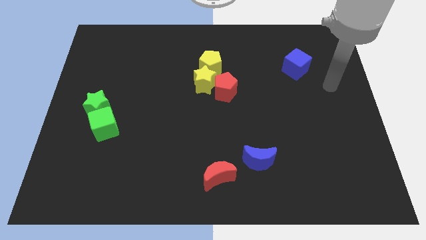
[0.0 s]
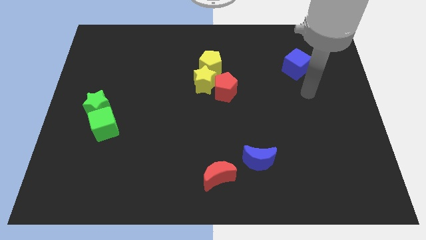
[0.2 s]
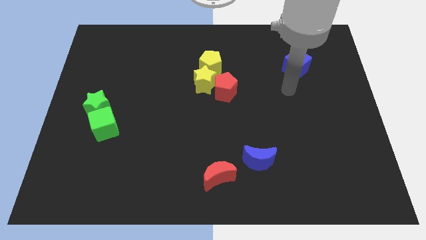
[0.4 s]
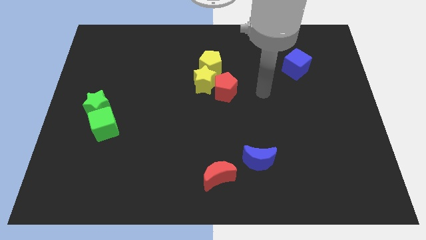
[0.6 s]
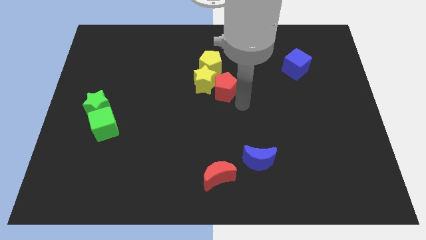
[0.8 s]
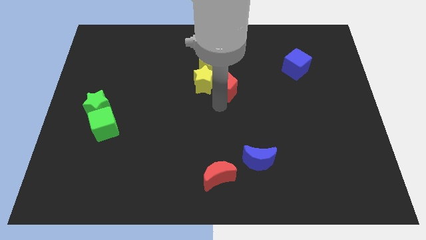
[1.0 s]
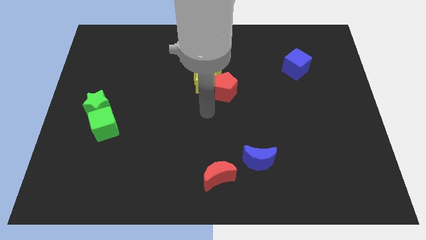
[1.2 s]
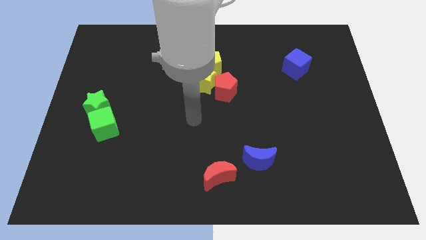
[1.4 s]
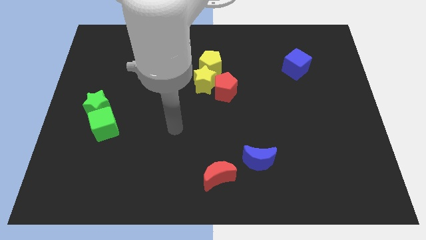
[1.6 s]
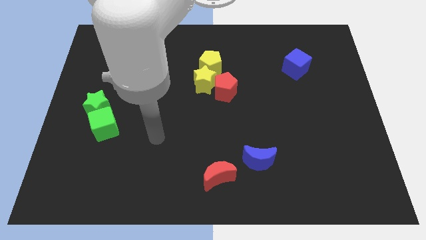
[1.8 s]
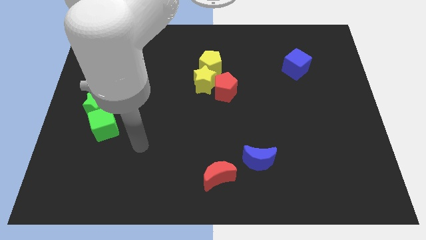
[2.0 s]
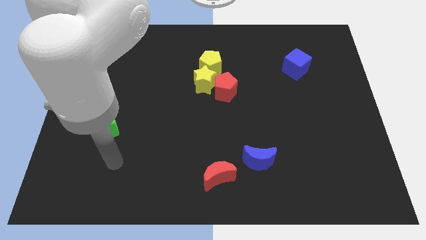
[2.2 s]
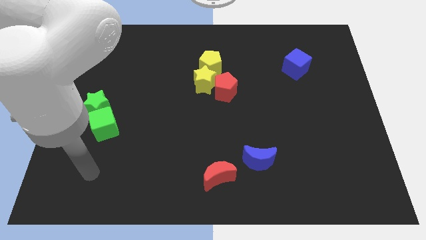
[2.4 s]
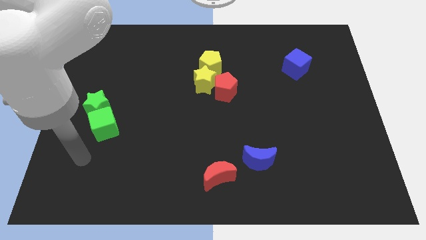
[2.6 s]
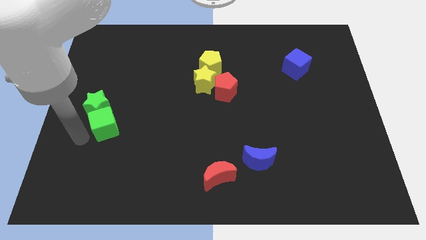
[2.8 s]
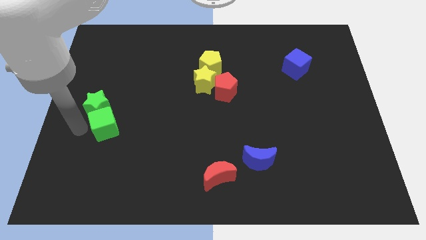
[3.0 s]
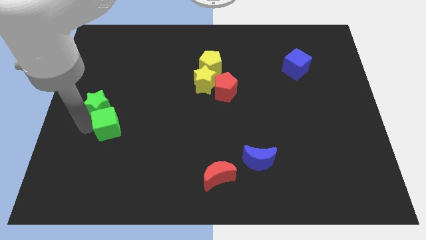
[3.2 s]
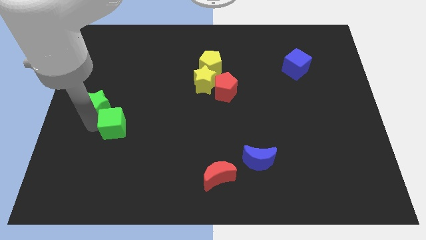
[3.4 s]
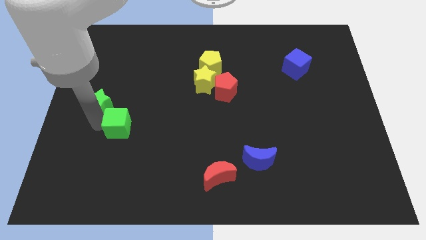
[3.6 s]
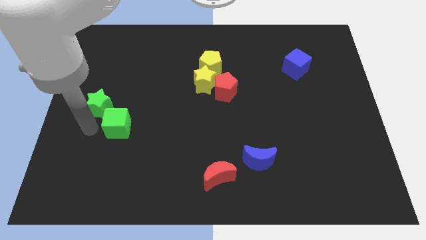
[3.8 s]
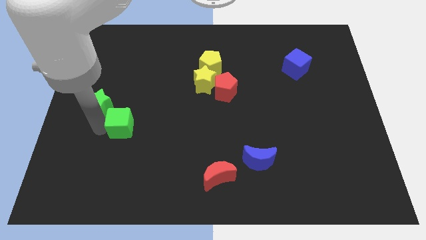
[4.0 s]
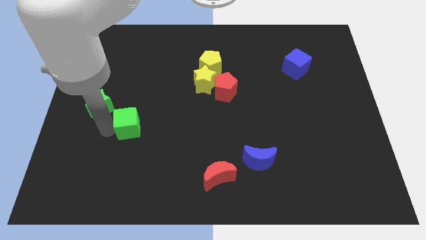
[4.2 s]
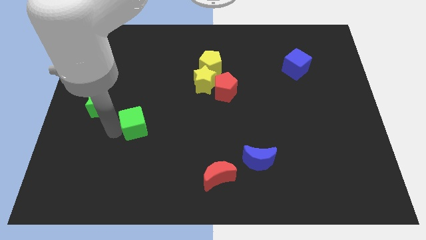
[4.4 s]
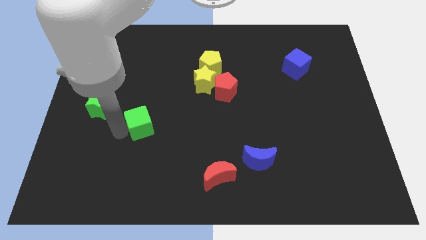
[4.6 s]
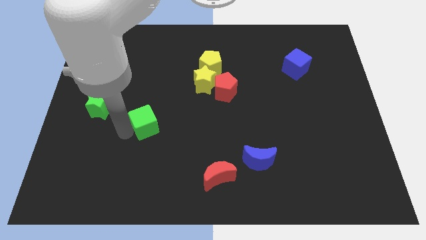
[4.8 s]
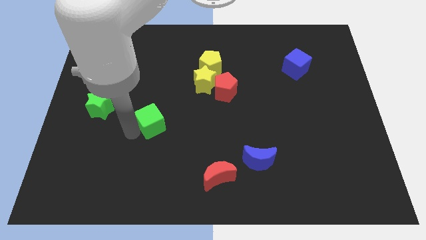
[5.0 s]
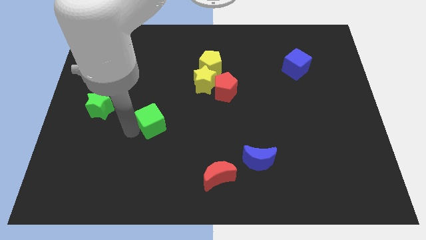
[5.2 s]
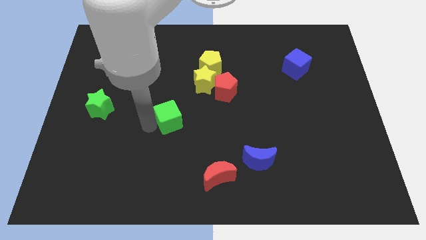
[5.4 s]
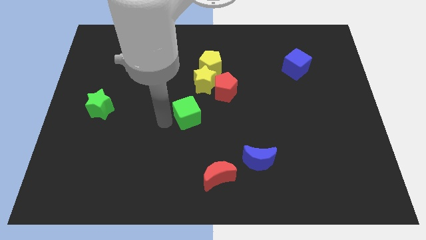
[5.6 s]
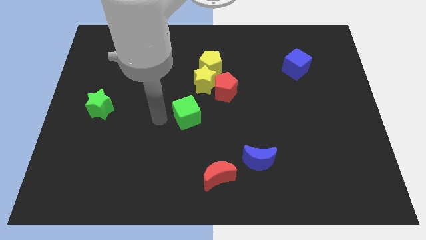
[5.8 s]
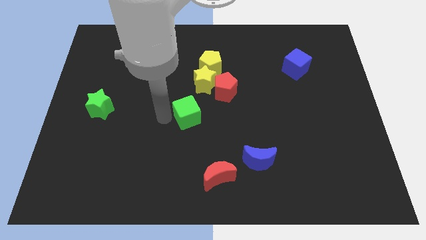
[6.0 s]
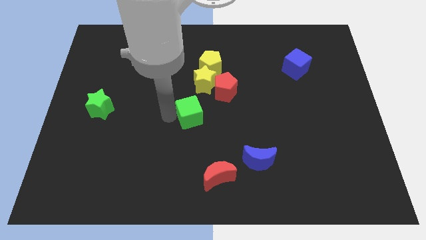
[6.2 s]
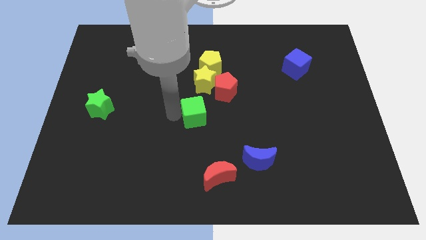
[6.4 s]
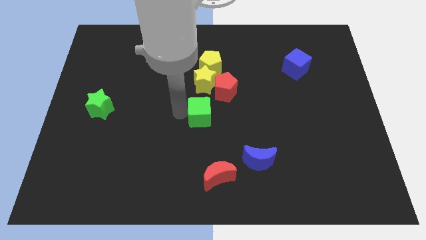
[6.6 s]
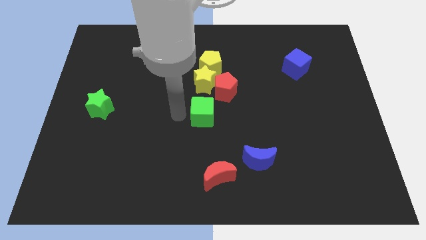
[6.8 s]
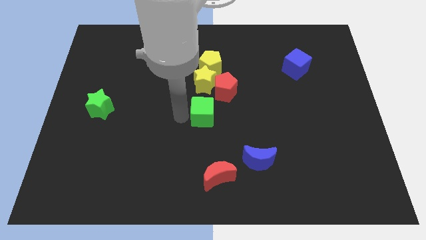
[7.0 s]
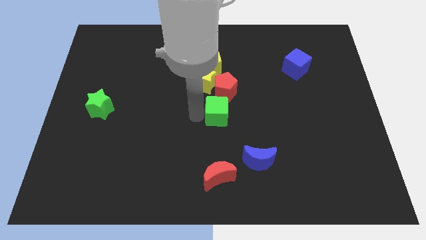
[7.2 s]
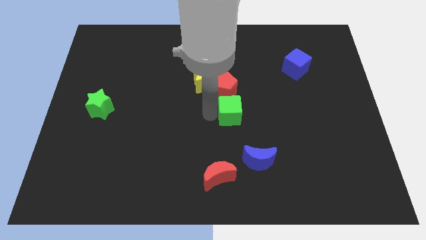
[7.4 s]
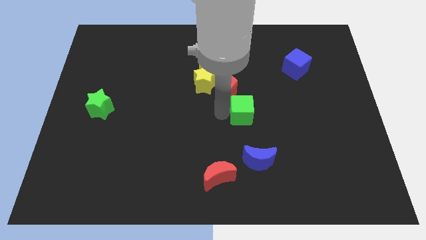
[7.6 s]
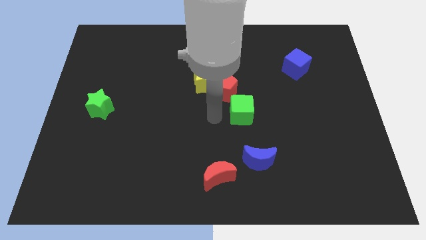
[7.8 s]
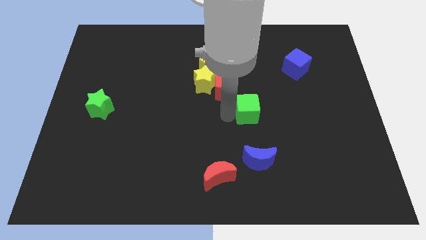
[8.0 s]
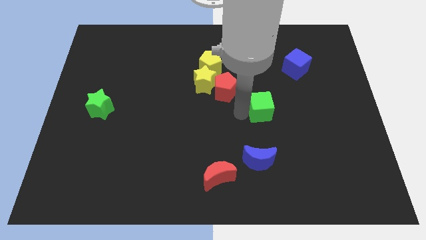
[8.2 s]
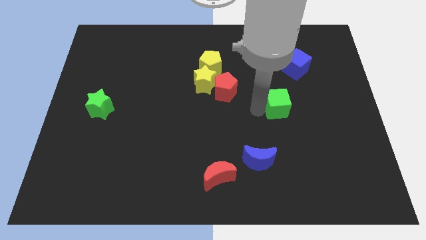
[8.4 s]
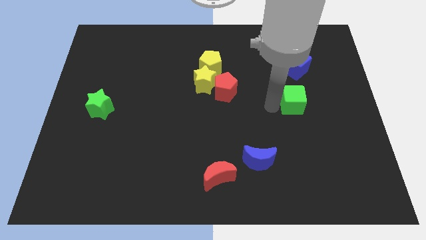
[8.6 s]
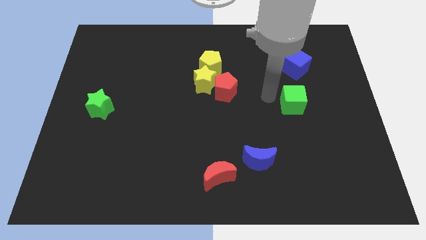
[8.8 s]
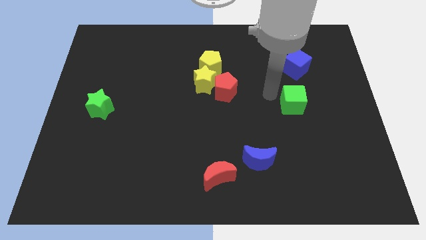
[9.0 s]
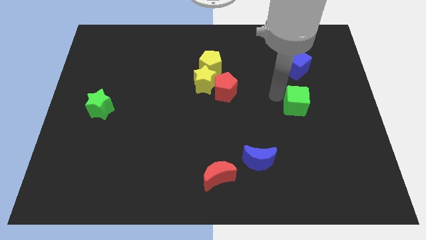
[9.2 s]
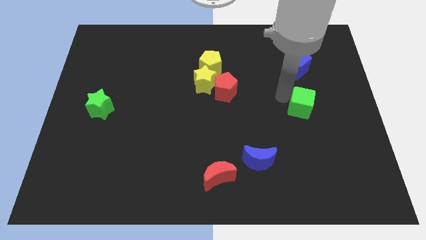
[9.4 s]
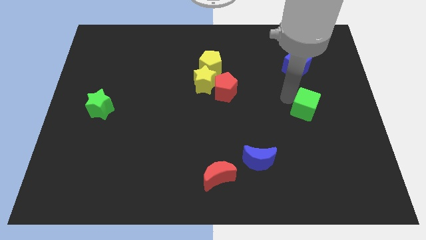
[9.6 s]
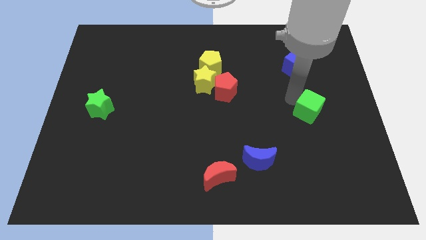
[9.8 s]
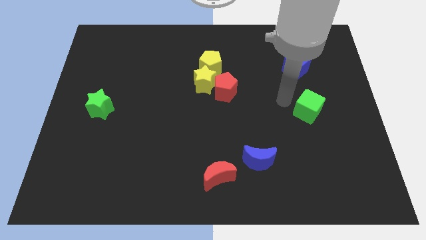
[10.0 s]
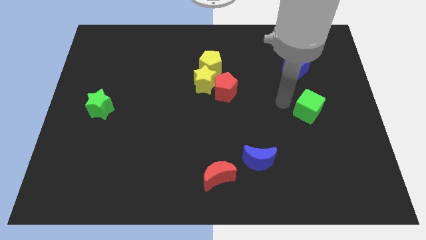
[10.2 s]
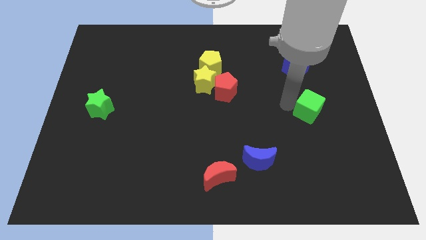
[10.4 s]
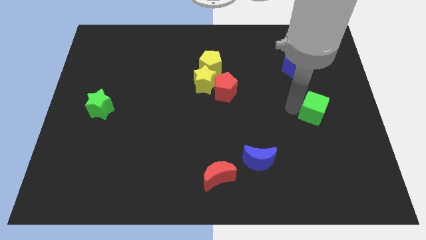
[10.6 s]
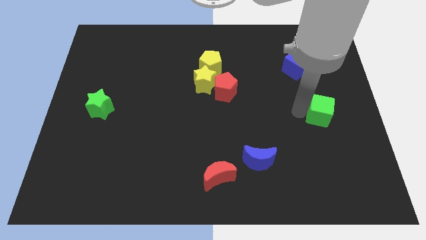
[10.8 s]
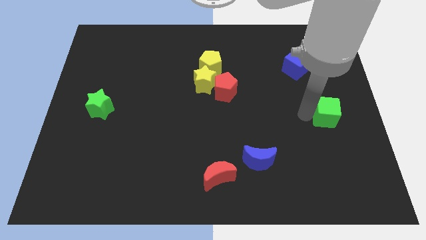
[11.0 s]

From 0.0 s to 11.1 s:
push the green cube to the right side

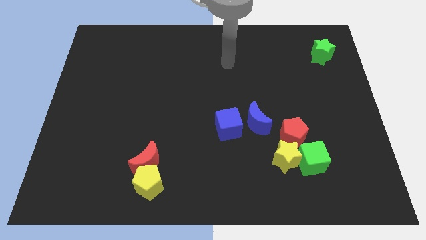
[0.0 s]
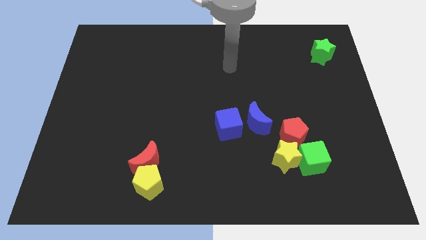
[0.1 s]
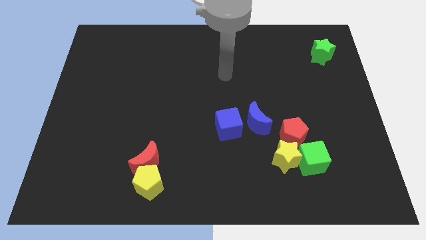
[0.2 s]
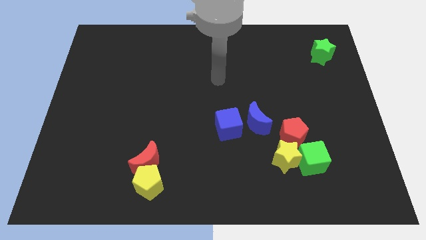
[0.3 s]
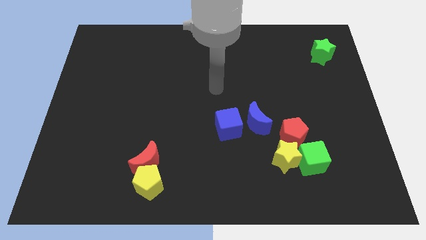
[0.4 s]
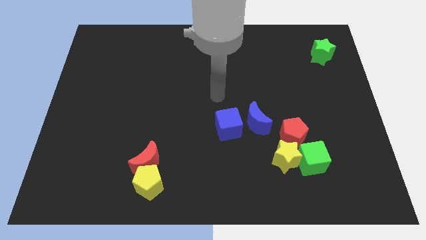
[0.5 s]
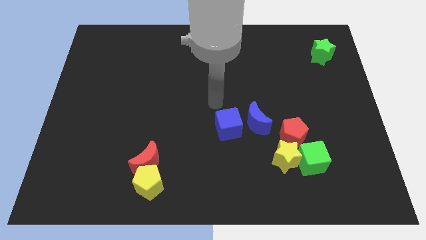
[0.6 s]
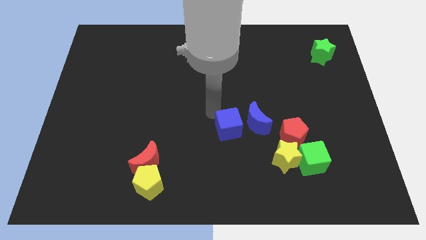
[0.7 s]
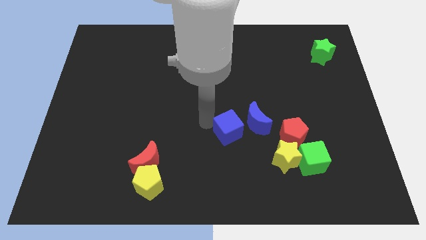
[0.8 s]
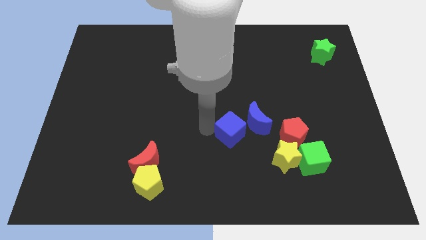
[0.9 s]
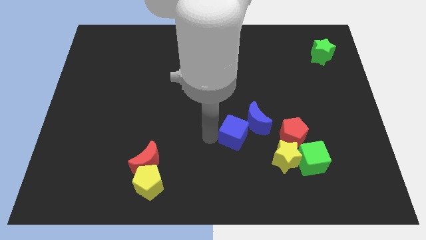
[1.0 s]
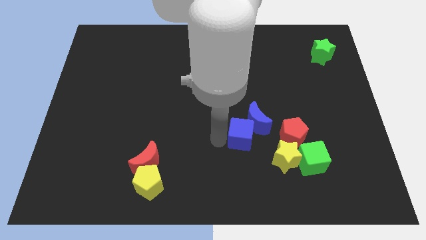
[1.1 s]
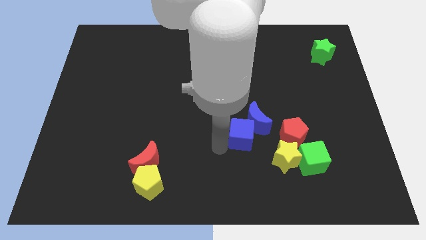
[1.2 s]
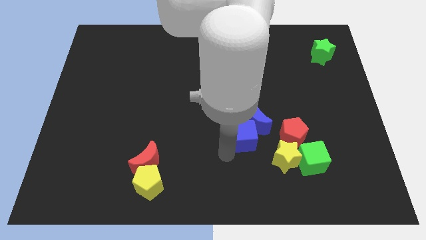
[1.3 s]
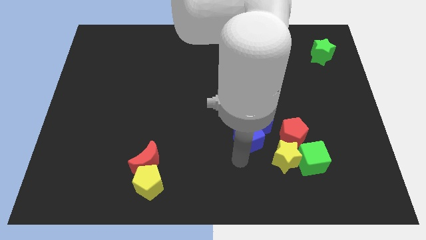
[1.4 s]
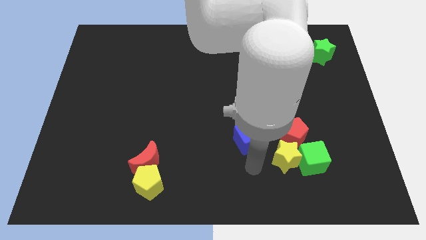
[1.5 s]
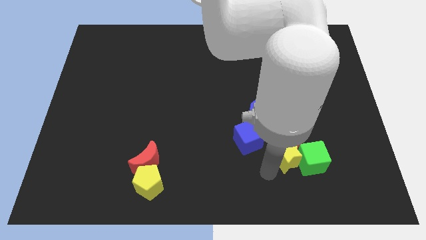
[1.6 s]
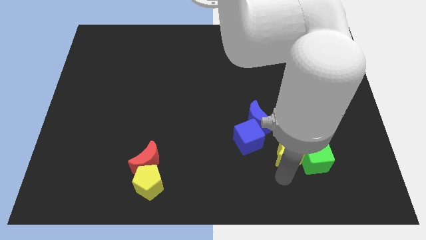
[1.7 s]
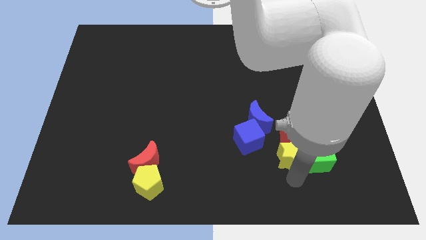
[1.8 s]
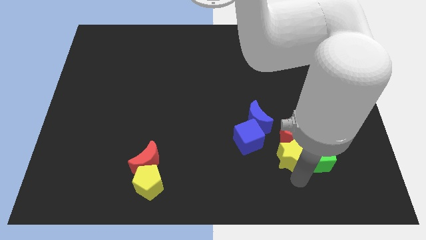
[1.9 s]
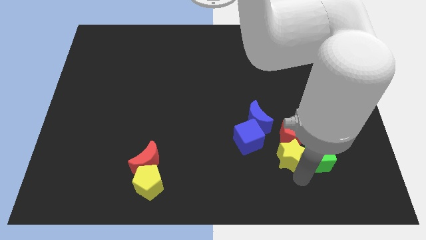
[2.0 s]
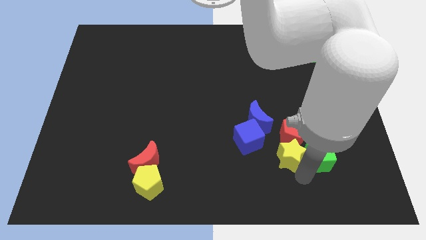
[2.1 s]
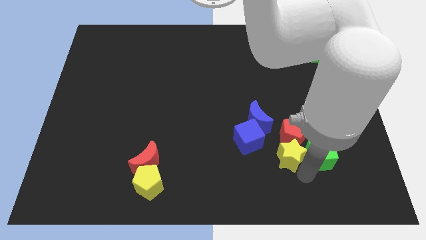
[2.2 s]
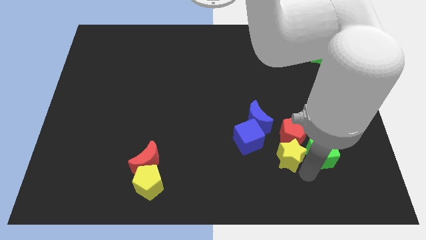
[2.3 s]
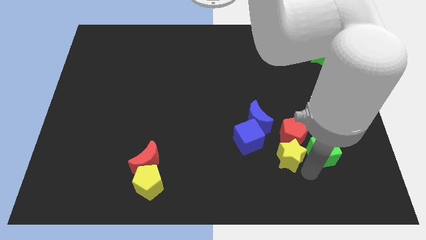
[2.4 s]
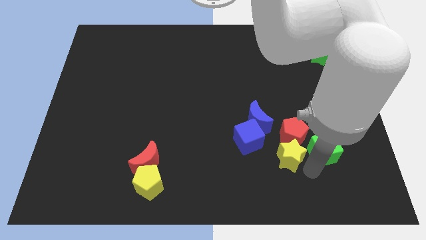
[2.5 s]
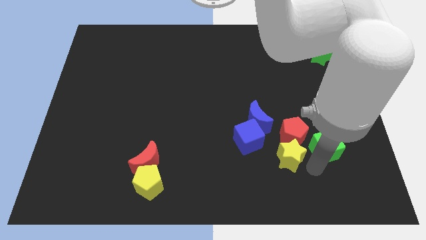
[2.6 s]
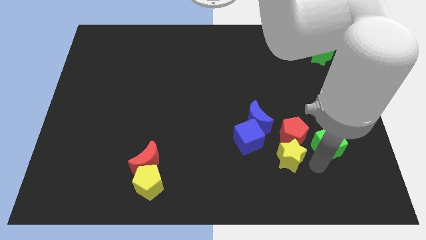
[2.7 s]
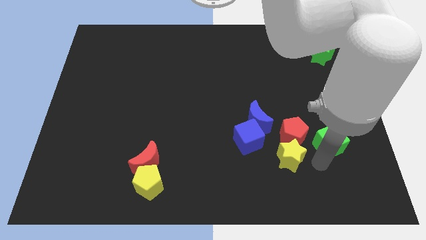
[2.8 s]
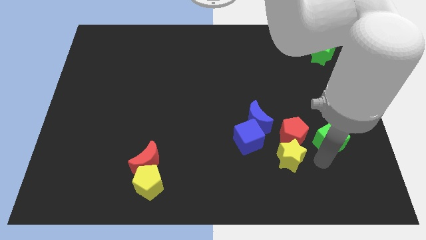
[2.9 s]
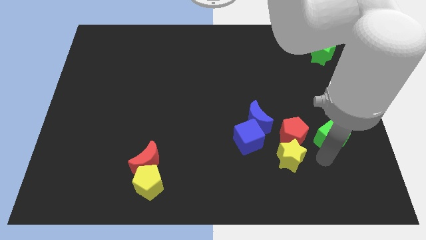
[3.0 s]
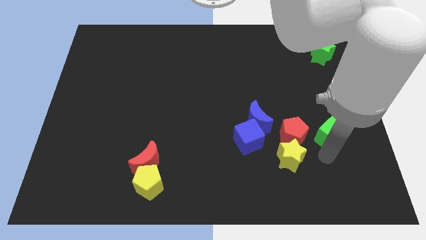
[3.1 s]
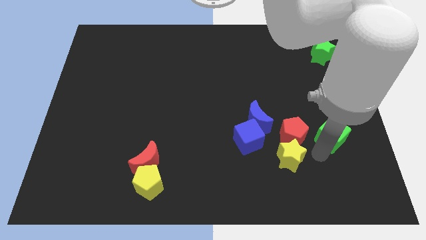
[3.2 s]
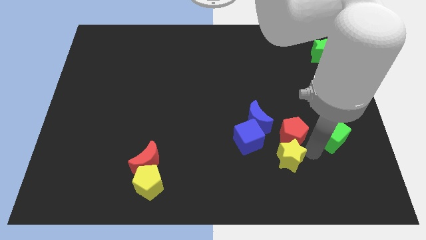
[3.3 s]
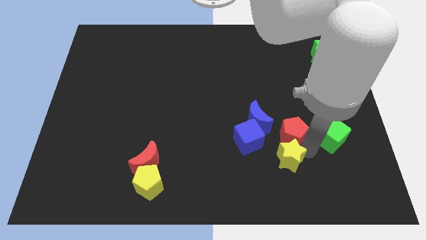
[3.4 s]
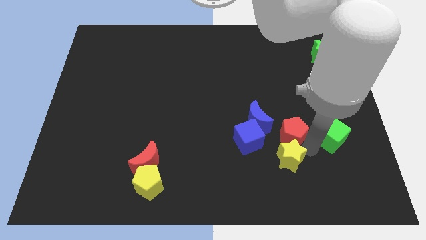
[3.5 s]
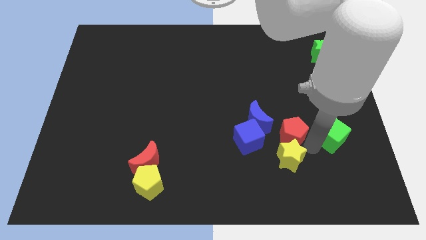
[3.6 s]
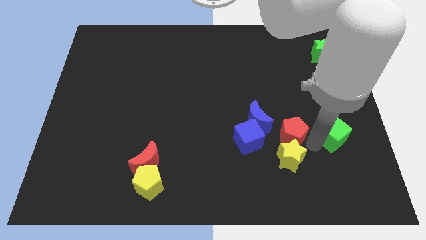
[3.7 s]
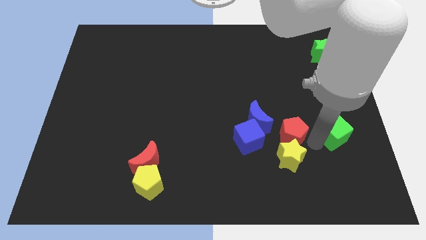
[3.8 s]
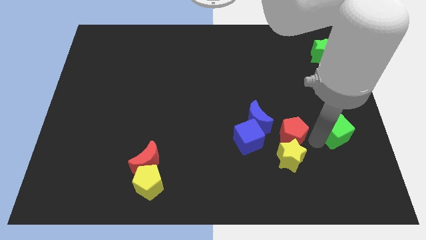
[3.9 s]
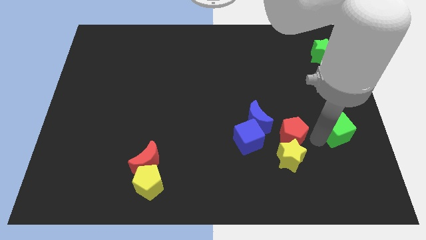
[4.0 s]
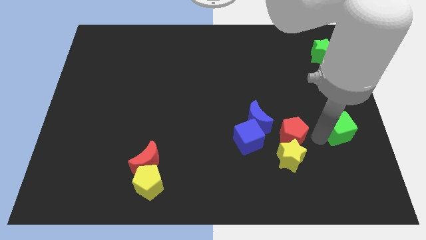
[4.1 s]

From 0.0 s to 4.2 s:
put the green cube to the right side
